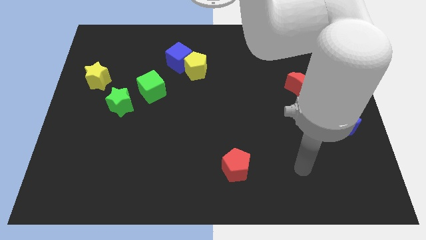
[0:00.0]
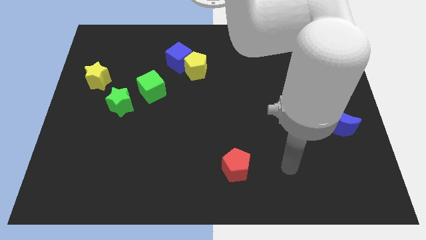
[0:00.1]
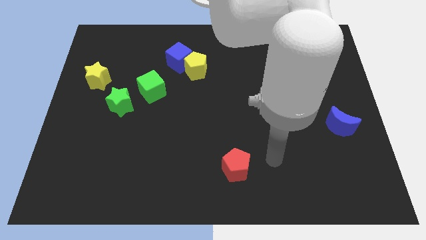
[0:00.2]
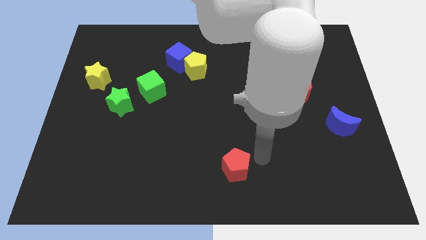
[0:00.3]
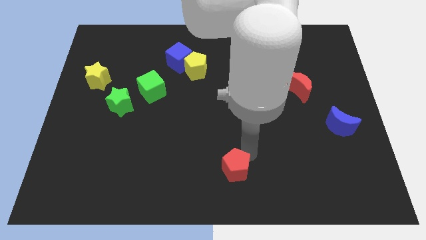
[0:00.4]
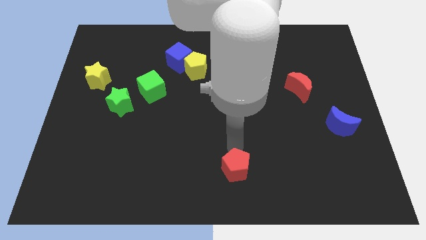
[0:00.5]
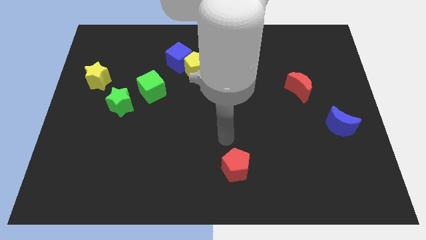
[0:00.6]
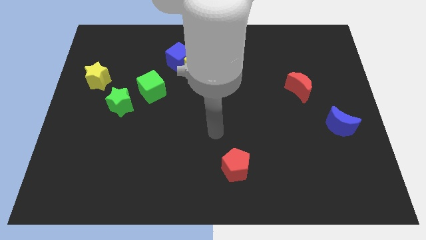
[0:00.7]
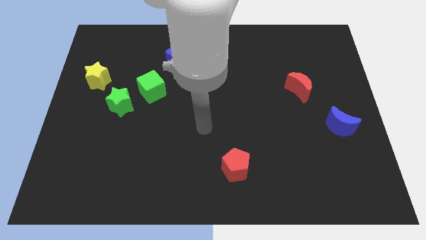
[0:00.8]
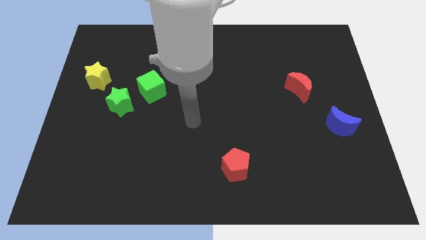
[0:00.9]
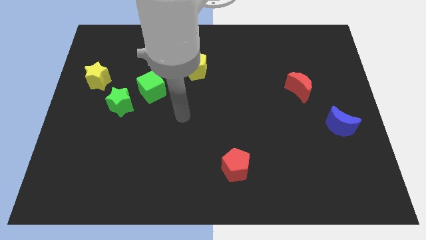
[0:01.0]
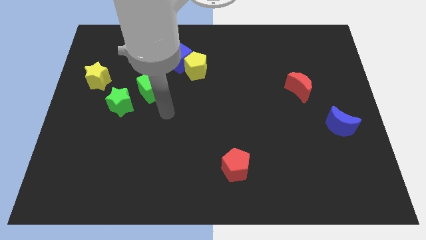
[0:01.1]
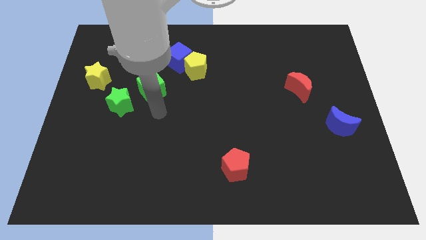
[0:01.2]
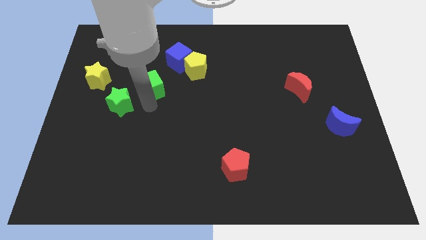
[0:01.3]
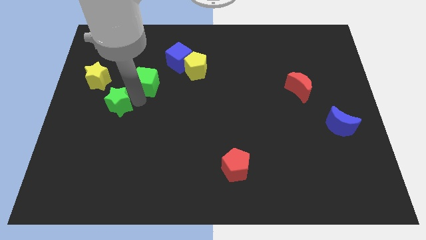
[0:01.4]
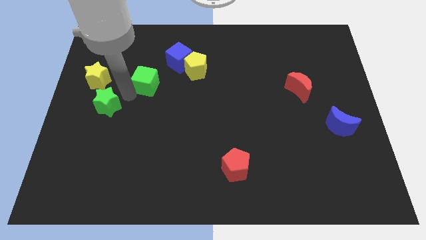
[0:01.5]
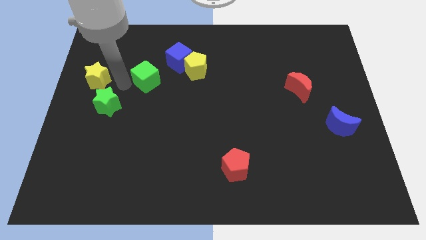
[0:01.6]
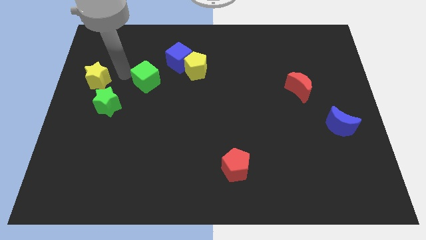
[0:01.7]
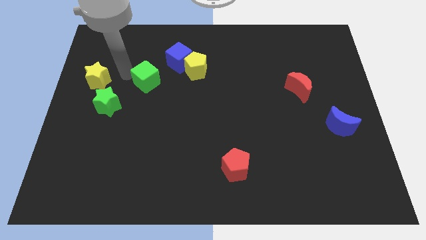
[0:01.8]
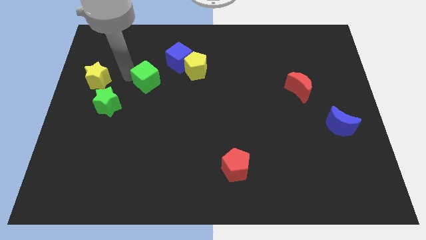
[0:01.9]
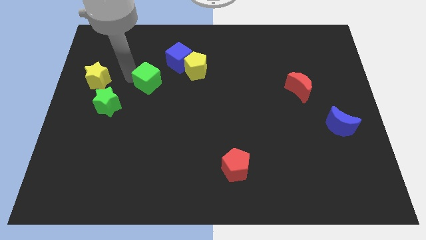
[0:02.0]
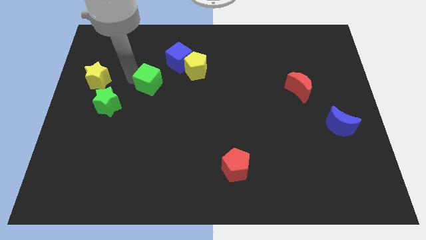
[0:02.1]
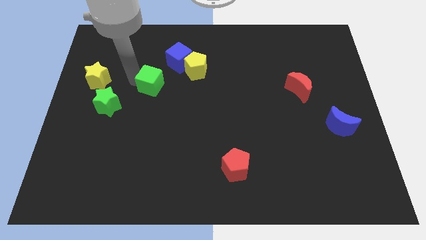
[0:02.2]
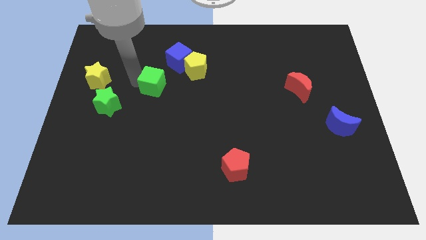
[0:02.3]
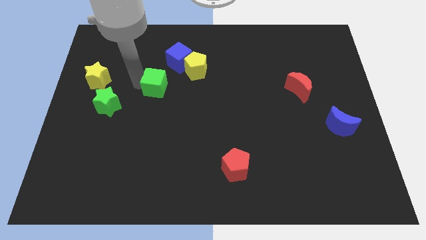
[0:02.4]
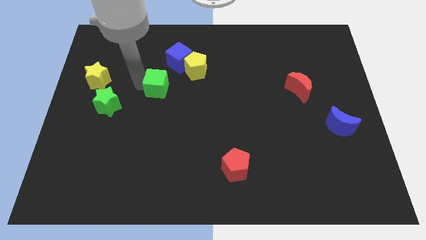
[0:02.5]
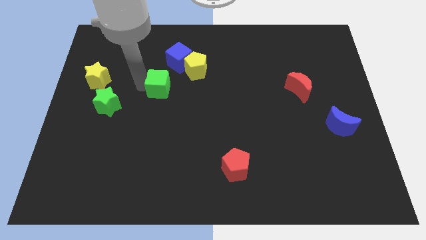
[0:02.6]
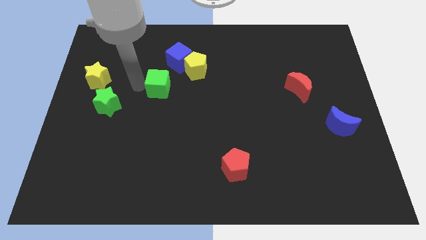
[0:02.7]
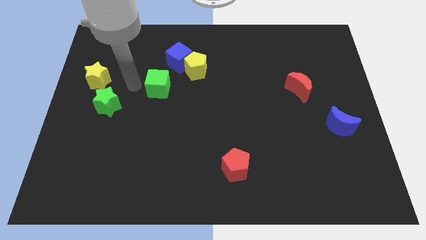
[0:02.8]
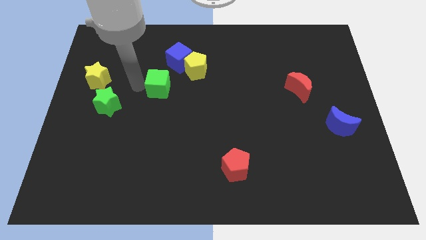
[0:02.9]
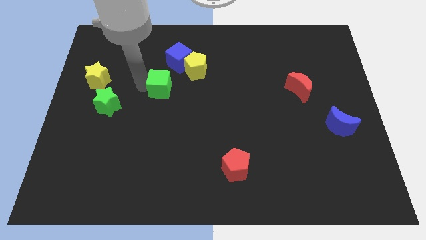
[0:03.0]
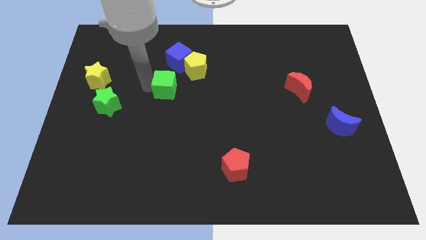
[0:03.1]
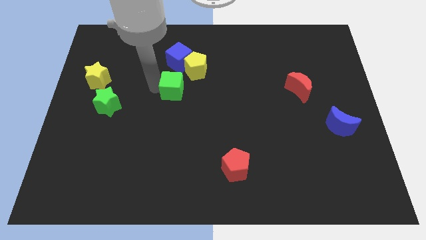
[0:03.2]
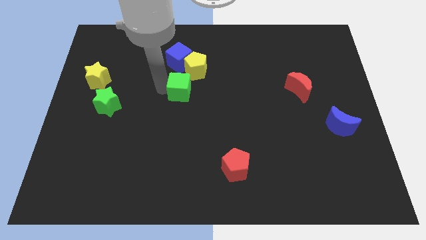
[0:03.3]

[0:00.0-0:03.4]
slightly move the green cube right

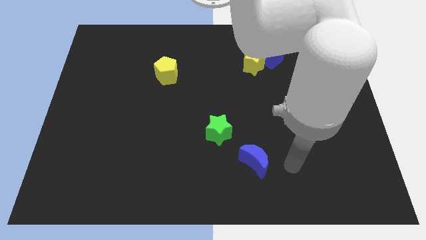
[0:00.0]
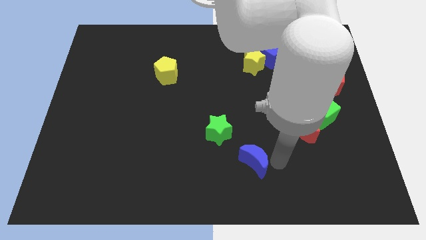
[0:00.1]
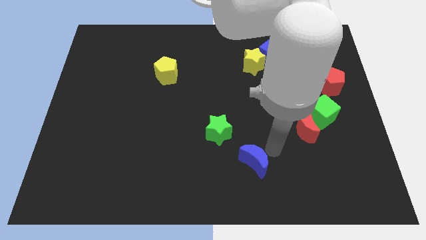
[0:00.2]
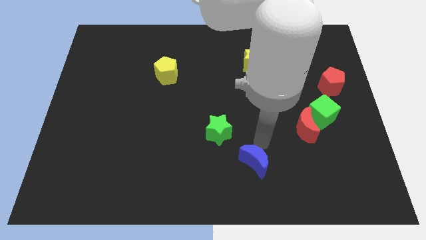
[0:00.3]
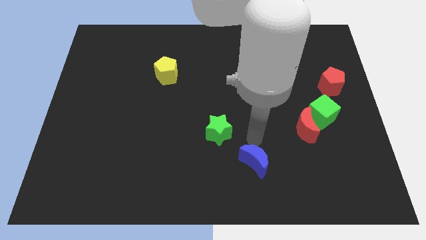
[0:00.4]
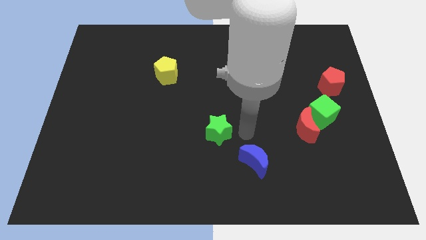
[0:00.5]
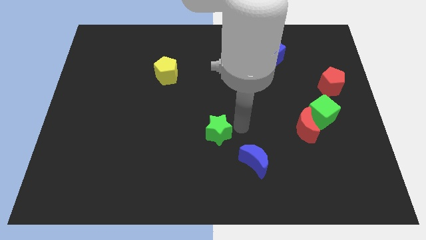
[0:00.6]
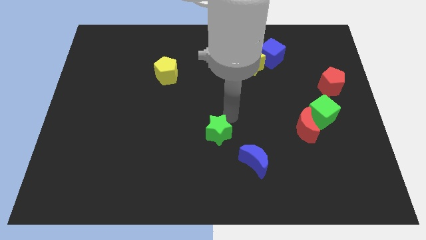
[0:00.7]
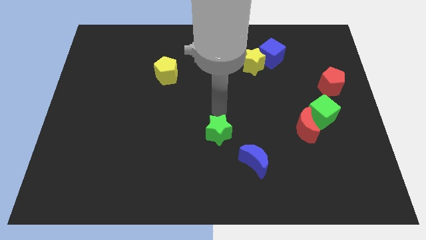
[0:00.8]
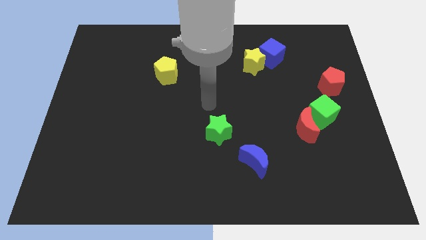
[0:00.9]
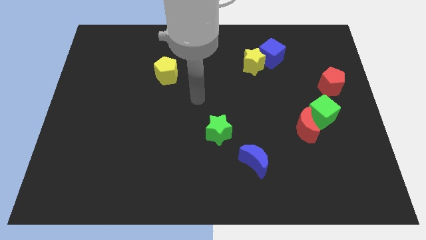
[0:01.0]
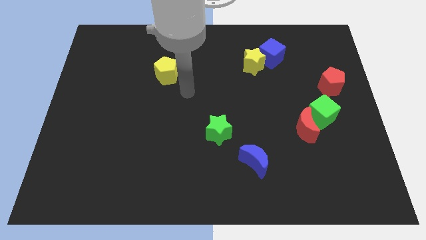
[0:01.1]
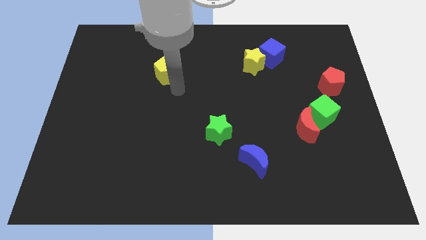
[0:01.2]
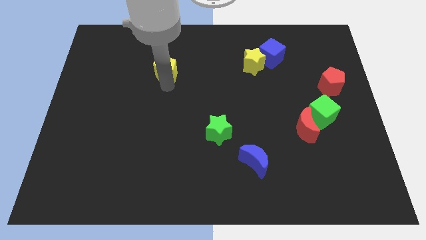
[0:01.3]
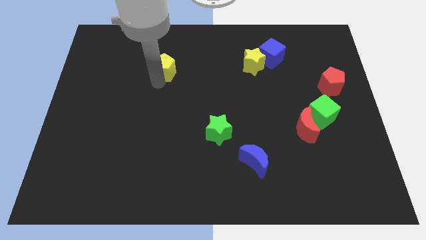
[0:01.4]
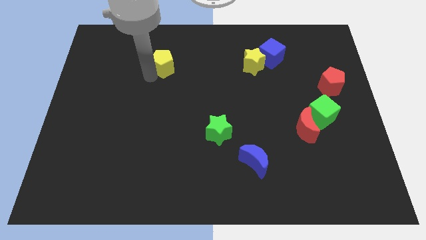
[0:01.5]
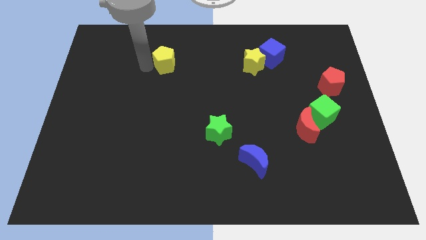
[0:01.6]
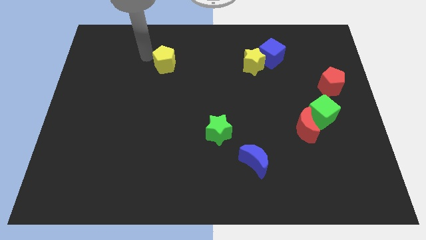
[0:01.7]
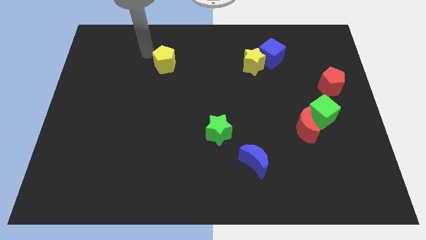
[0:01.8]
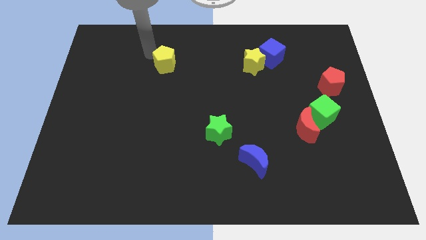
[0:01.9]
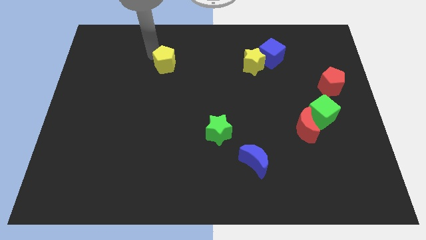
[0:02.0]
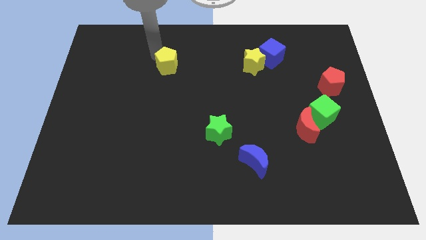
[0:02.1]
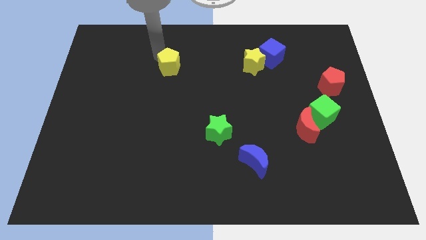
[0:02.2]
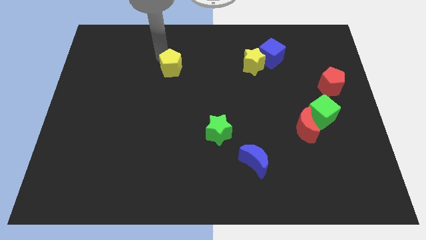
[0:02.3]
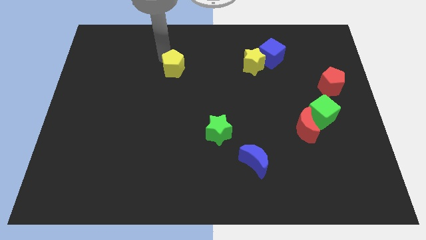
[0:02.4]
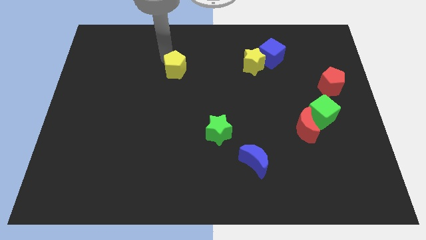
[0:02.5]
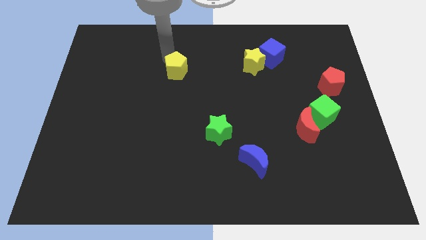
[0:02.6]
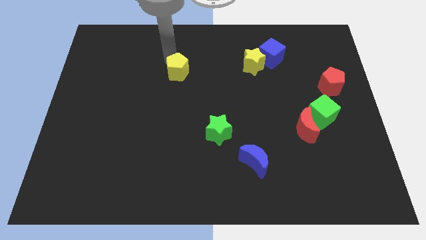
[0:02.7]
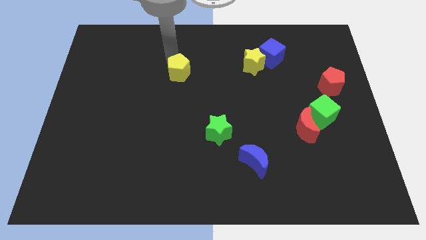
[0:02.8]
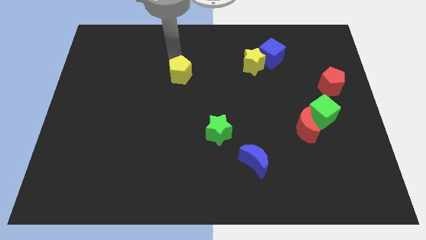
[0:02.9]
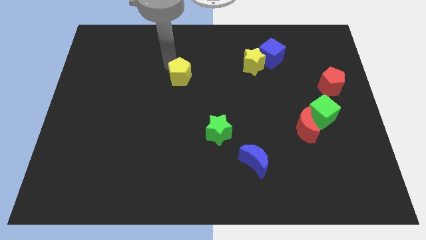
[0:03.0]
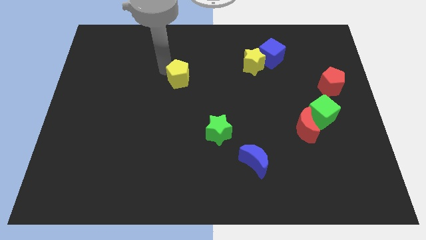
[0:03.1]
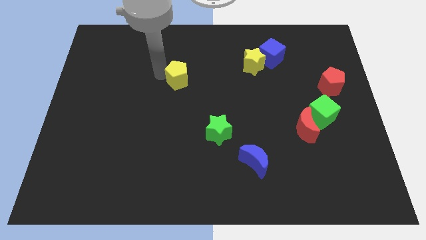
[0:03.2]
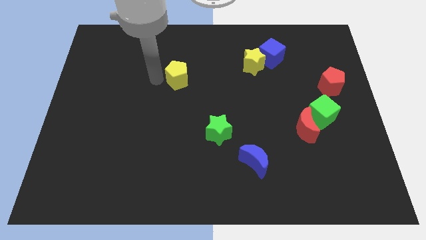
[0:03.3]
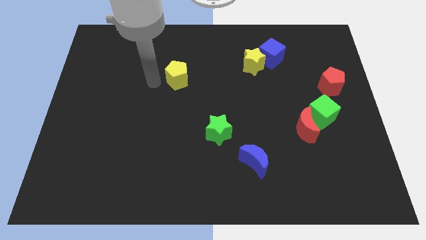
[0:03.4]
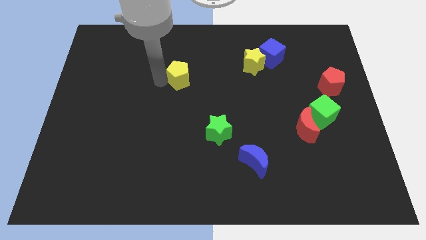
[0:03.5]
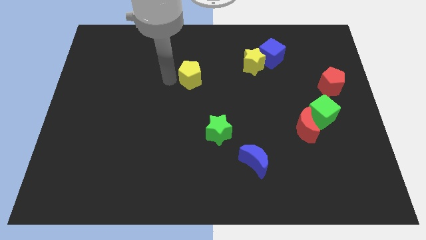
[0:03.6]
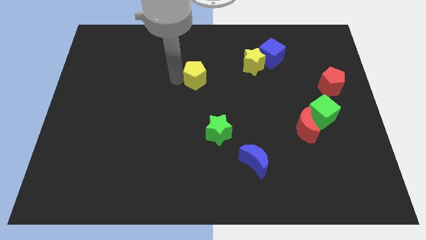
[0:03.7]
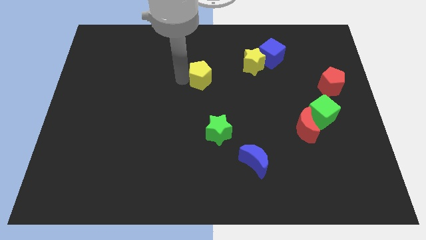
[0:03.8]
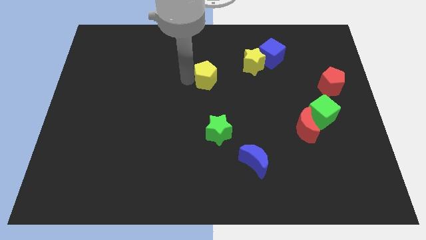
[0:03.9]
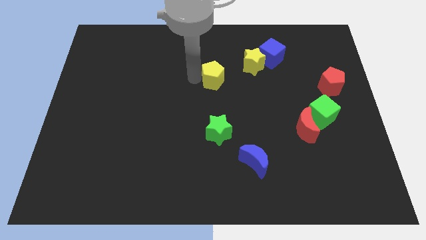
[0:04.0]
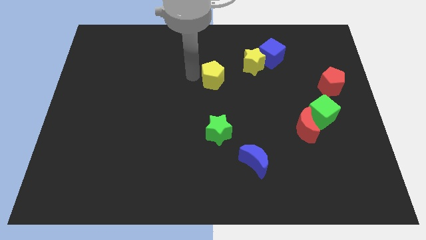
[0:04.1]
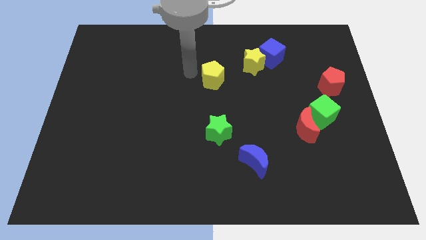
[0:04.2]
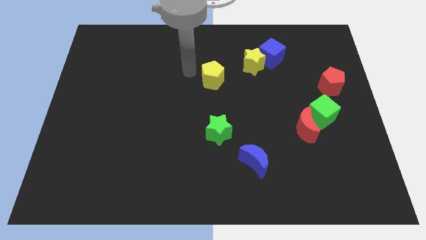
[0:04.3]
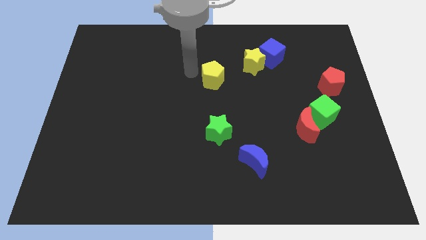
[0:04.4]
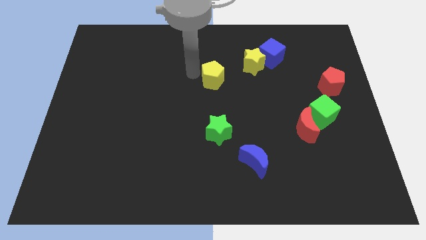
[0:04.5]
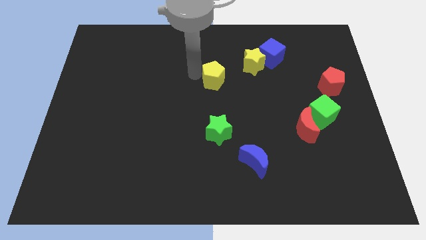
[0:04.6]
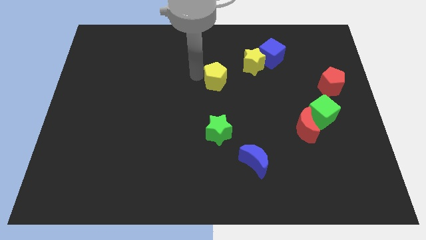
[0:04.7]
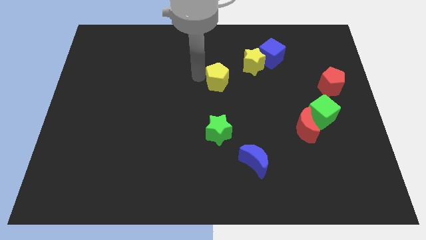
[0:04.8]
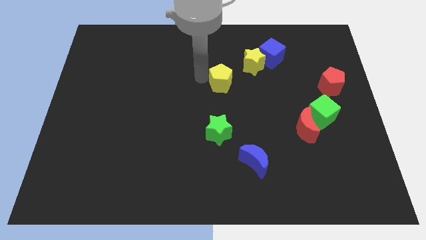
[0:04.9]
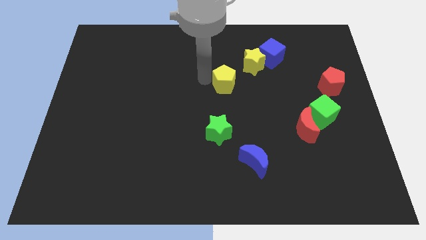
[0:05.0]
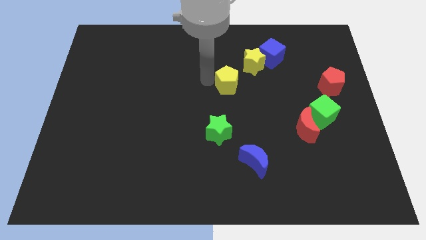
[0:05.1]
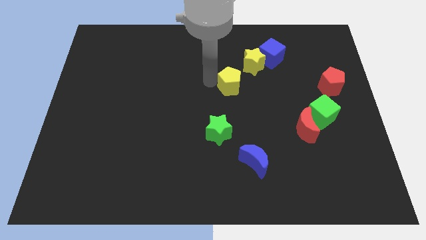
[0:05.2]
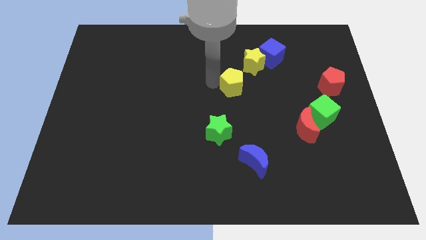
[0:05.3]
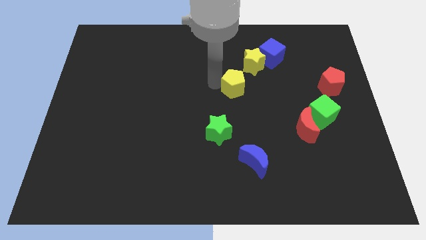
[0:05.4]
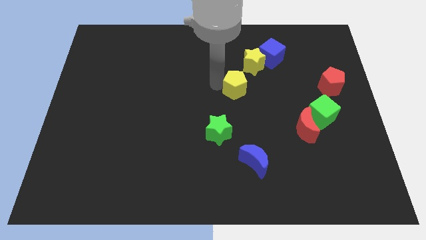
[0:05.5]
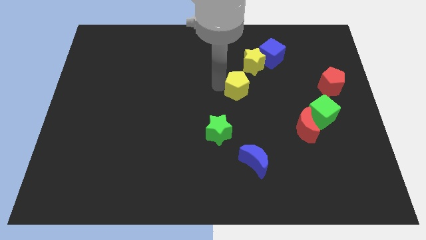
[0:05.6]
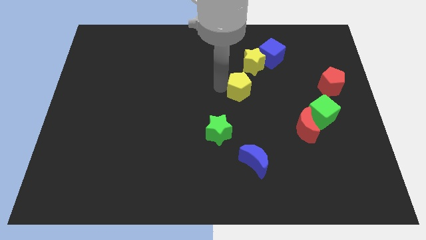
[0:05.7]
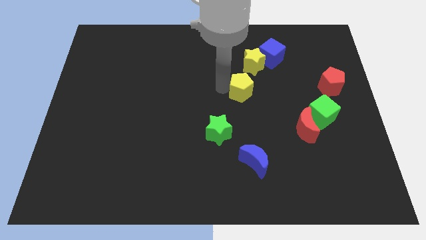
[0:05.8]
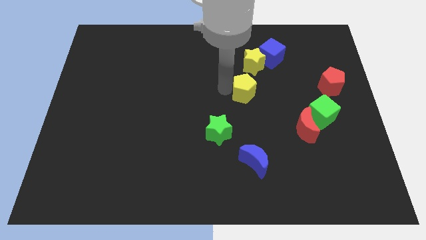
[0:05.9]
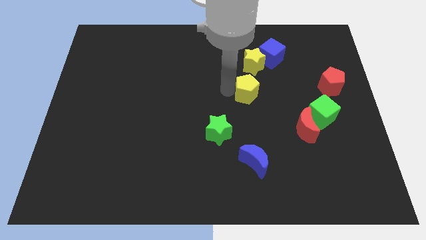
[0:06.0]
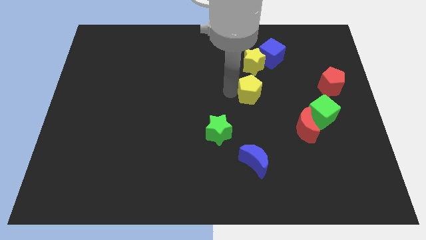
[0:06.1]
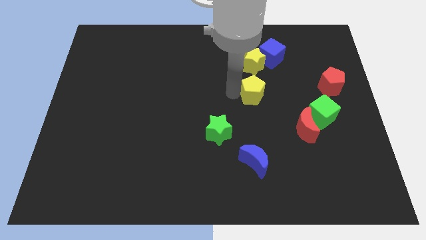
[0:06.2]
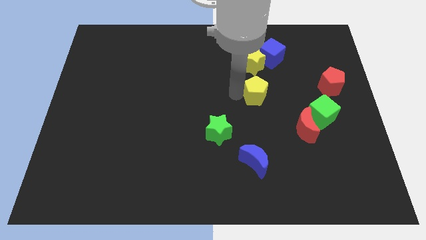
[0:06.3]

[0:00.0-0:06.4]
slide the yellow pentagon to the right
